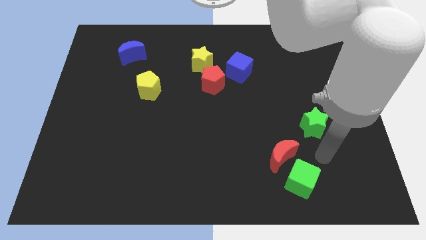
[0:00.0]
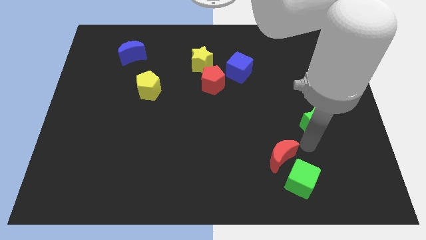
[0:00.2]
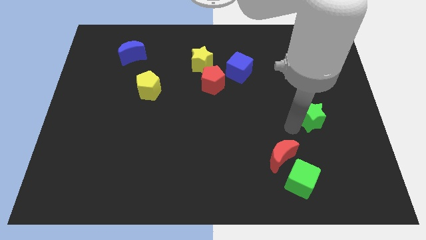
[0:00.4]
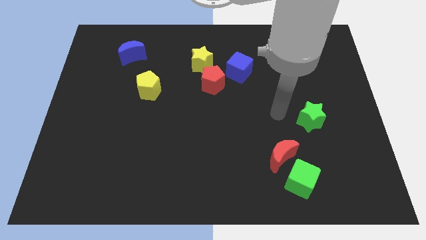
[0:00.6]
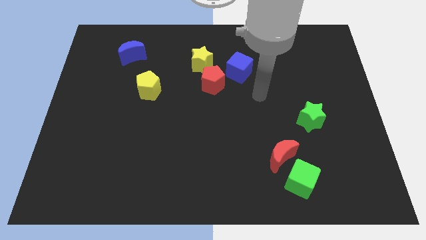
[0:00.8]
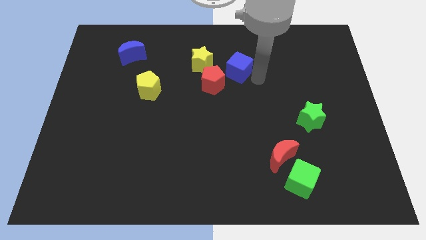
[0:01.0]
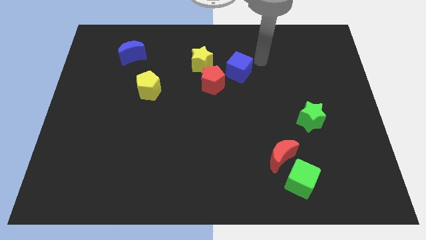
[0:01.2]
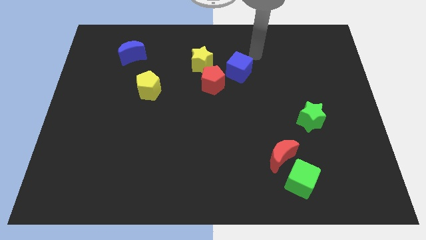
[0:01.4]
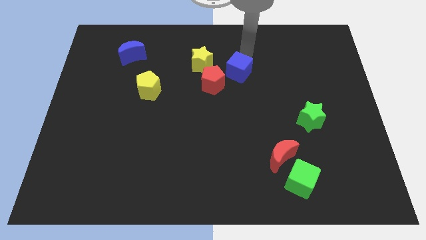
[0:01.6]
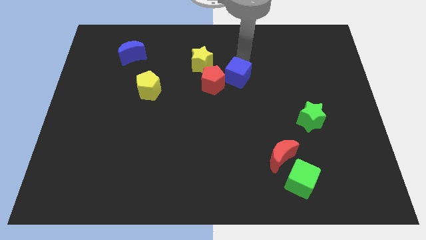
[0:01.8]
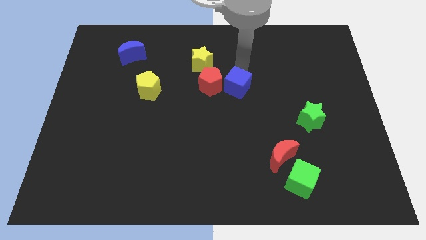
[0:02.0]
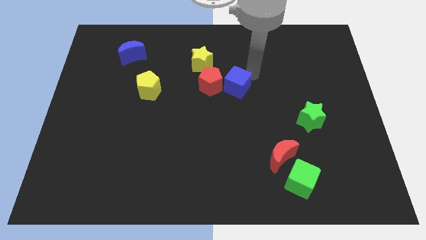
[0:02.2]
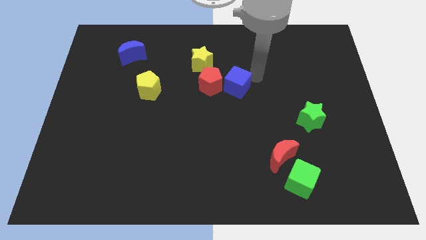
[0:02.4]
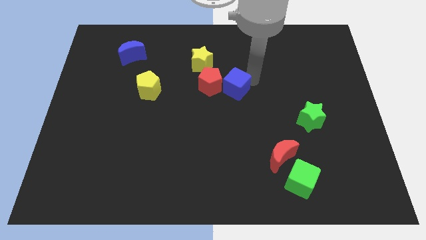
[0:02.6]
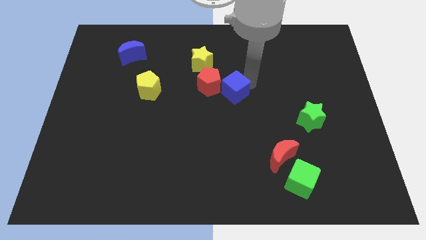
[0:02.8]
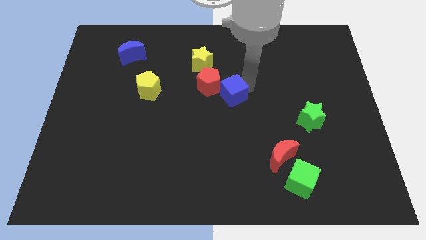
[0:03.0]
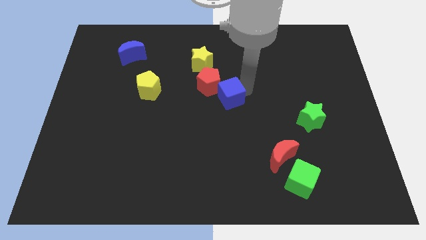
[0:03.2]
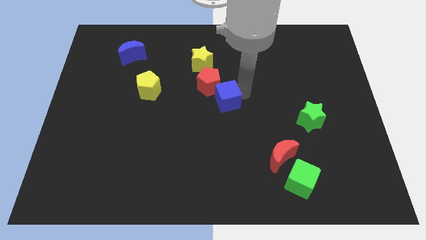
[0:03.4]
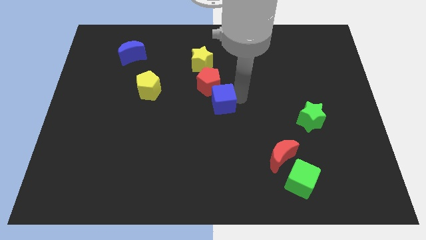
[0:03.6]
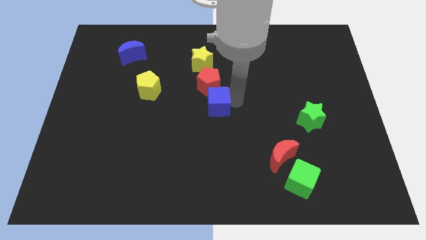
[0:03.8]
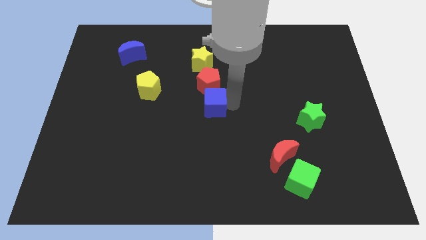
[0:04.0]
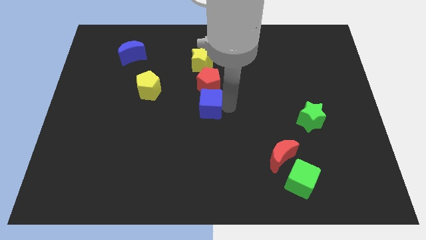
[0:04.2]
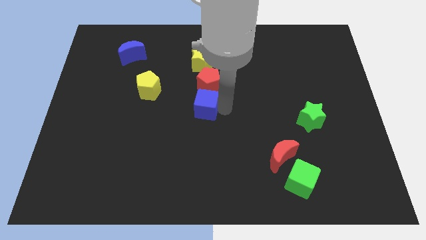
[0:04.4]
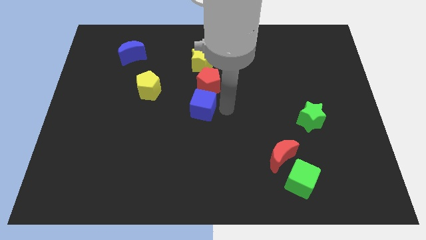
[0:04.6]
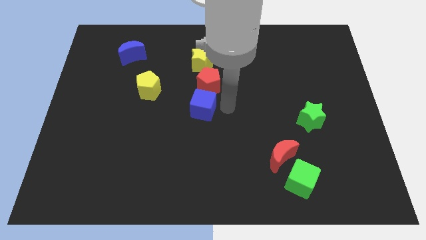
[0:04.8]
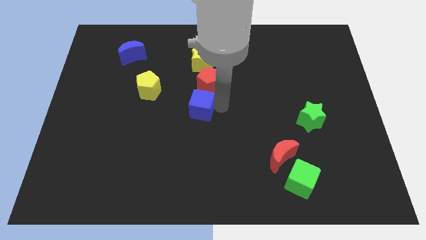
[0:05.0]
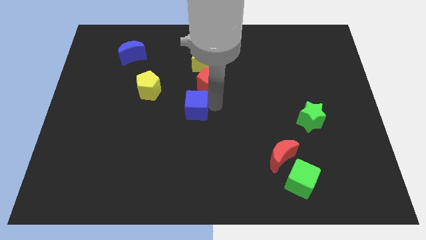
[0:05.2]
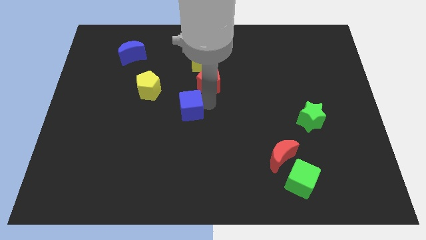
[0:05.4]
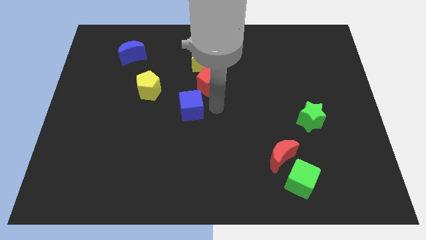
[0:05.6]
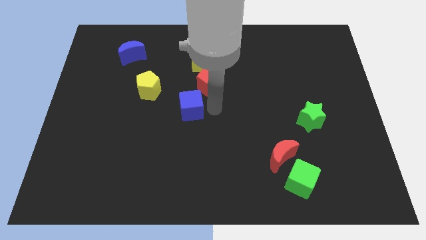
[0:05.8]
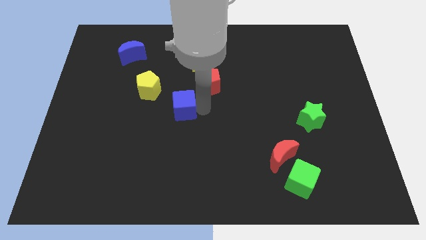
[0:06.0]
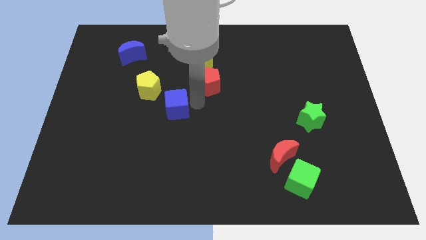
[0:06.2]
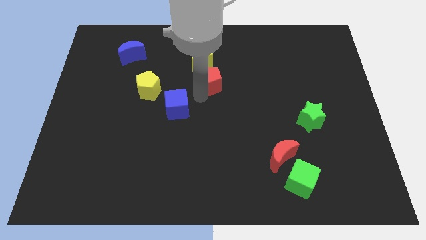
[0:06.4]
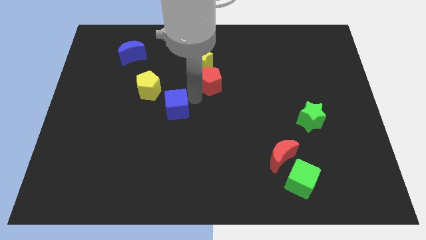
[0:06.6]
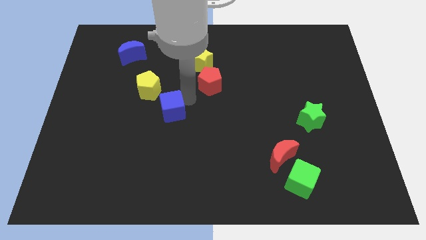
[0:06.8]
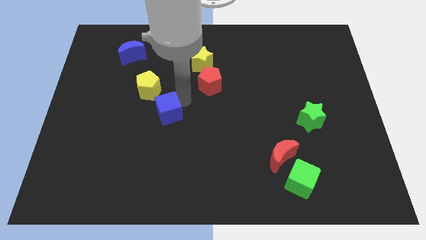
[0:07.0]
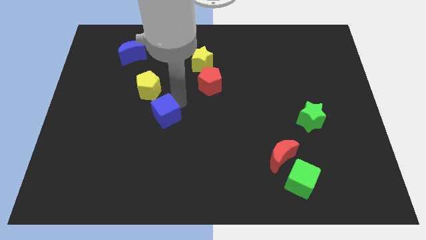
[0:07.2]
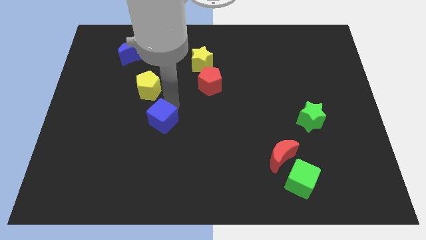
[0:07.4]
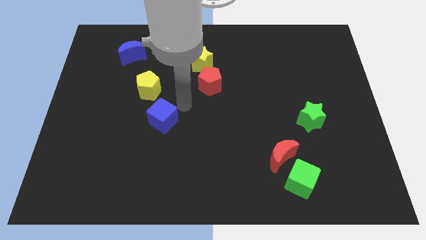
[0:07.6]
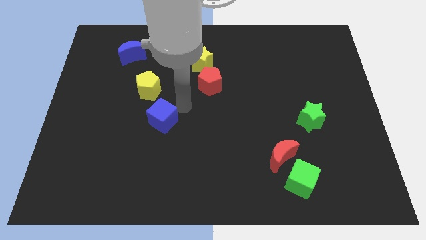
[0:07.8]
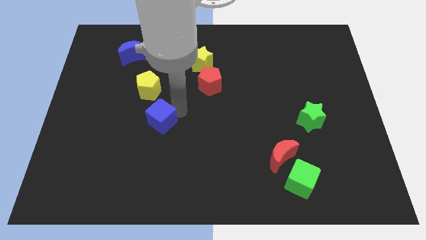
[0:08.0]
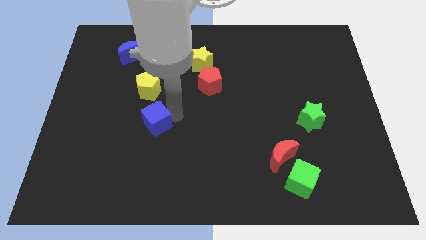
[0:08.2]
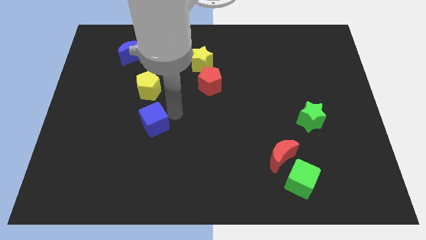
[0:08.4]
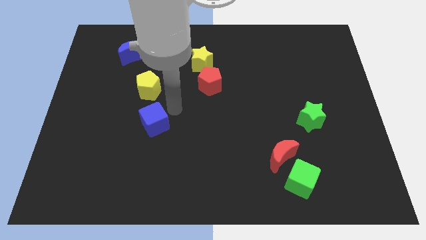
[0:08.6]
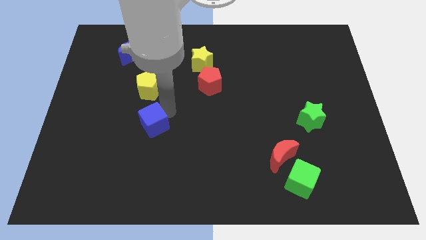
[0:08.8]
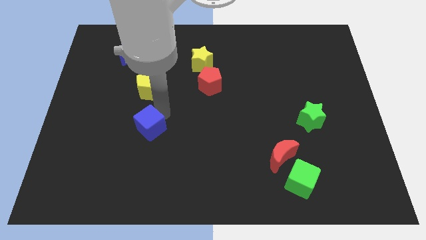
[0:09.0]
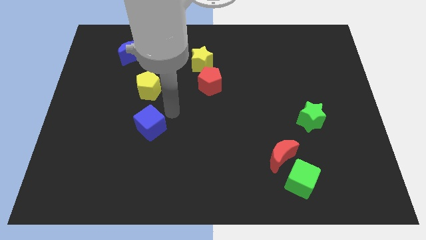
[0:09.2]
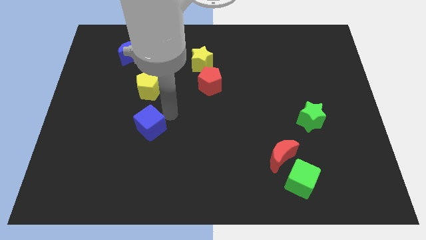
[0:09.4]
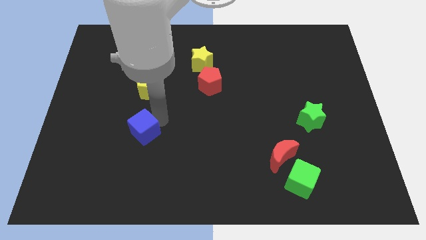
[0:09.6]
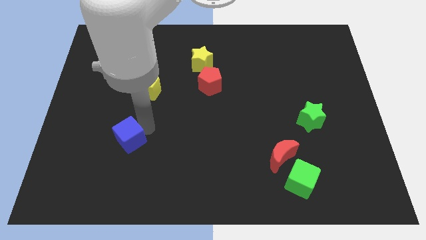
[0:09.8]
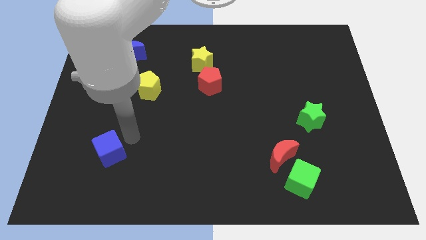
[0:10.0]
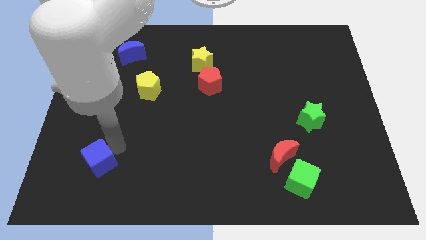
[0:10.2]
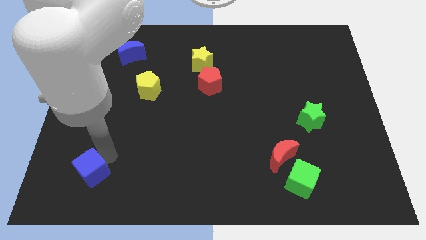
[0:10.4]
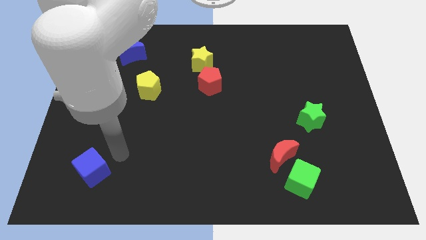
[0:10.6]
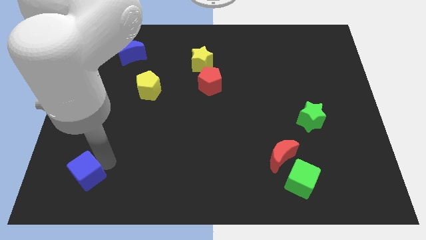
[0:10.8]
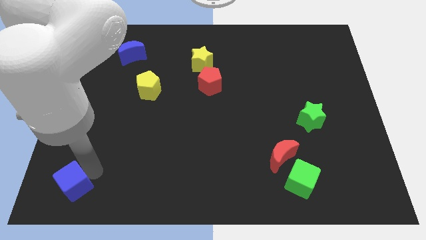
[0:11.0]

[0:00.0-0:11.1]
slide the blue cube to the lower left corner

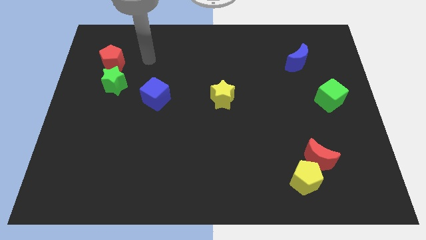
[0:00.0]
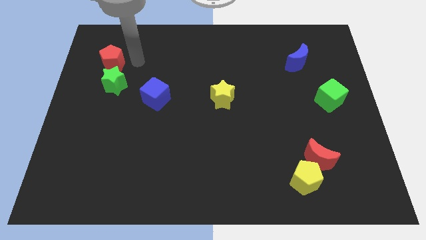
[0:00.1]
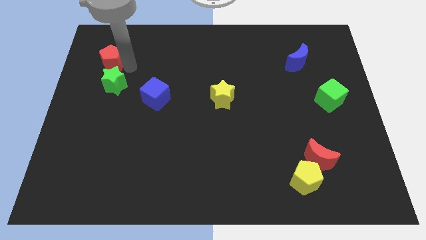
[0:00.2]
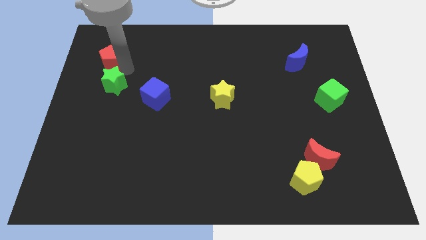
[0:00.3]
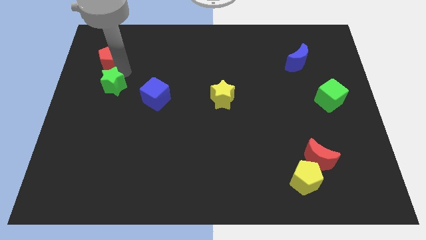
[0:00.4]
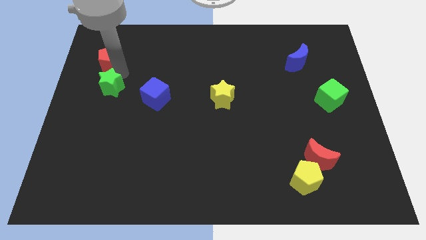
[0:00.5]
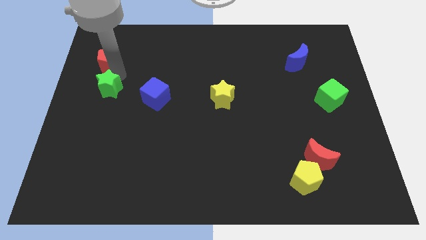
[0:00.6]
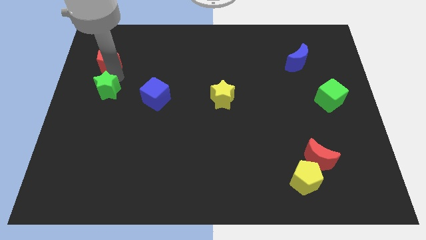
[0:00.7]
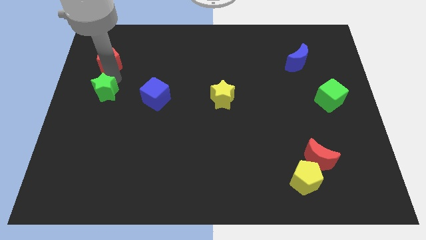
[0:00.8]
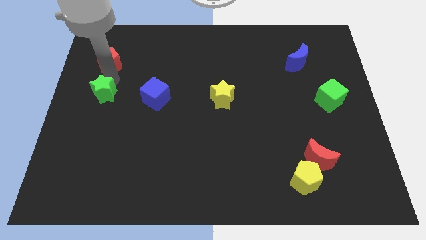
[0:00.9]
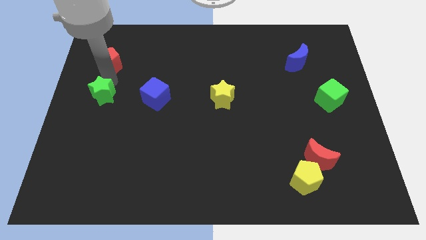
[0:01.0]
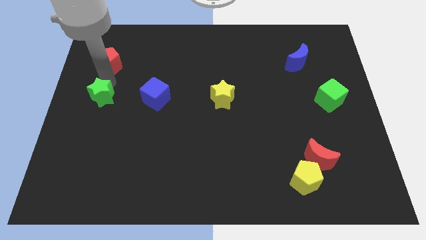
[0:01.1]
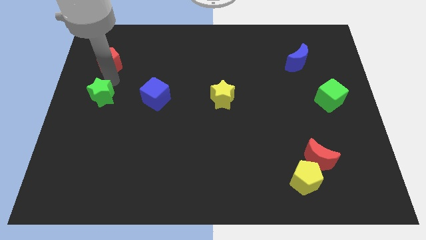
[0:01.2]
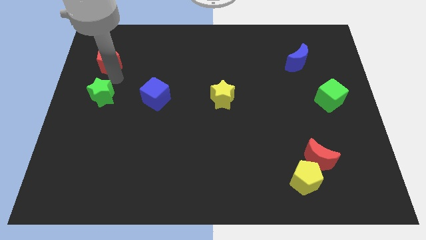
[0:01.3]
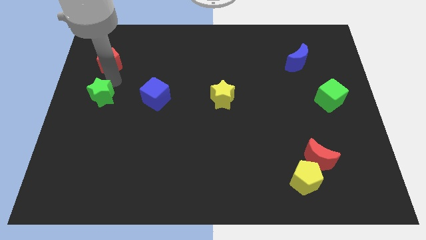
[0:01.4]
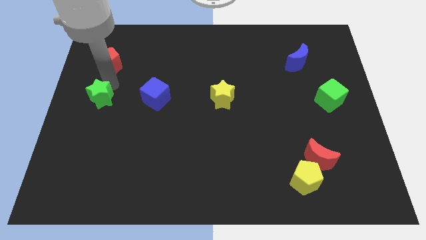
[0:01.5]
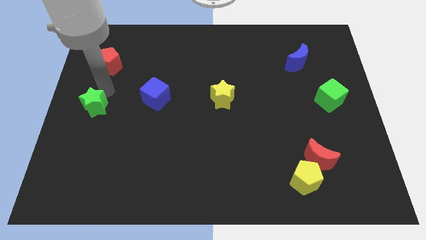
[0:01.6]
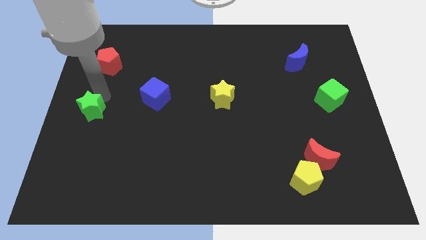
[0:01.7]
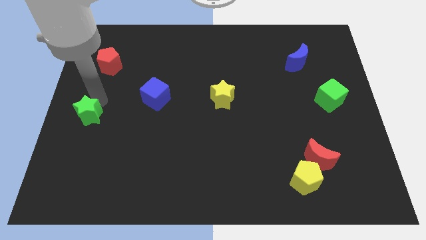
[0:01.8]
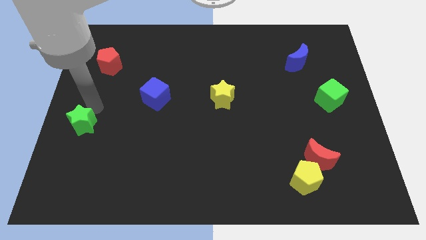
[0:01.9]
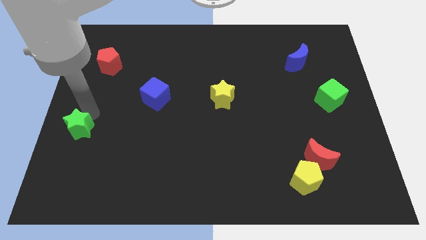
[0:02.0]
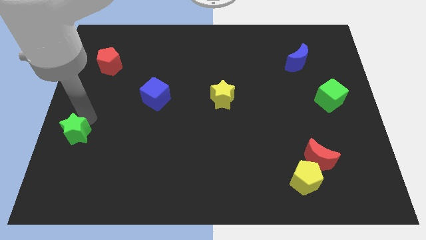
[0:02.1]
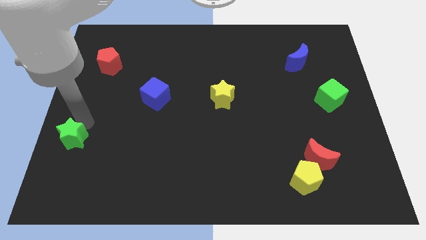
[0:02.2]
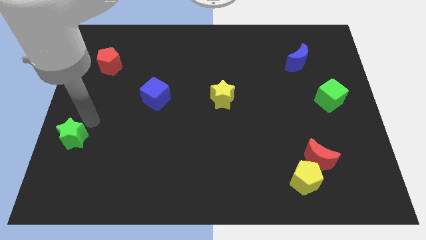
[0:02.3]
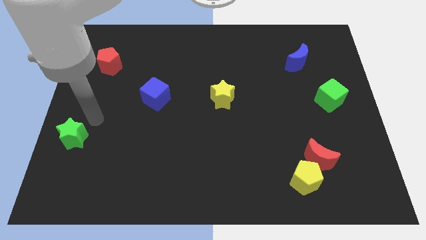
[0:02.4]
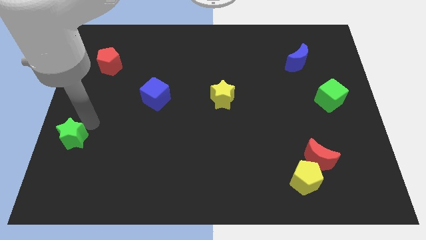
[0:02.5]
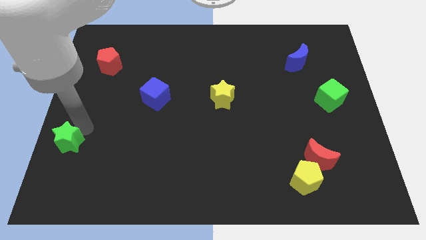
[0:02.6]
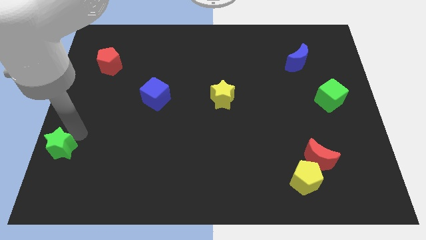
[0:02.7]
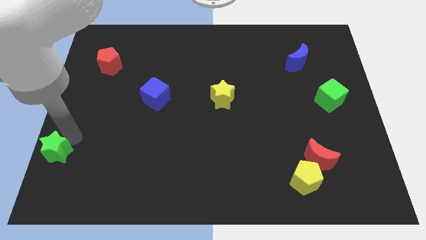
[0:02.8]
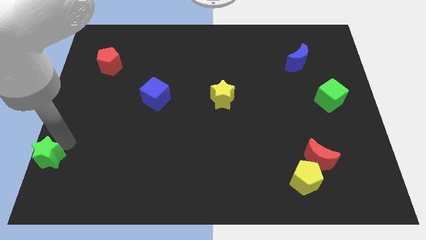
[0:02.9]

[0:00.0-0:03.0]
slide the green star to the bottom left
